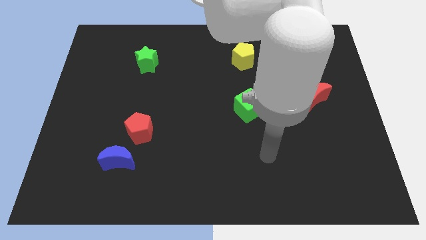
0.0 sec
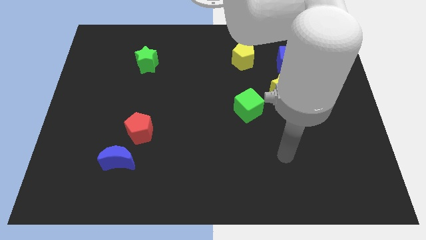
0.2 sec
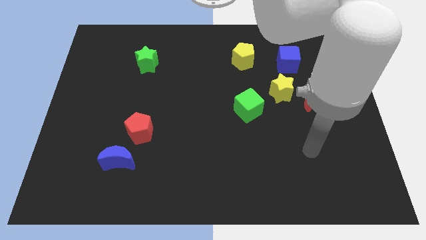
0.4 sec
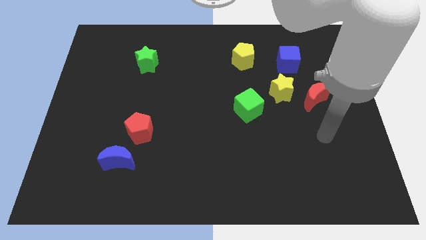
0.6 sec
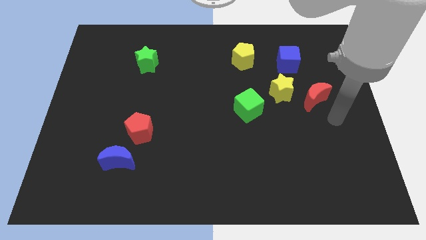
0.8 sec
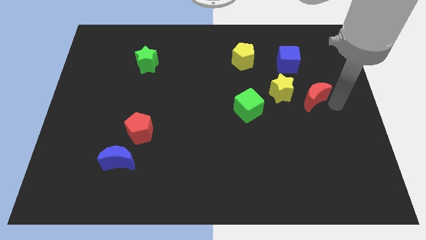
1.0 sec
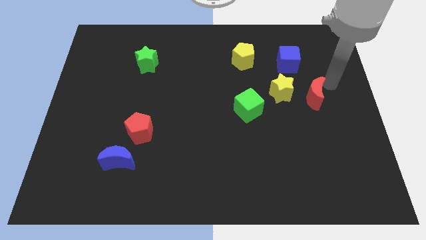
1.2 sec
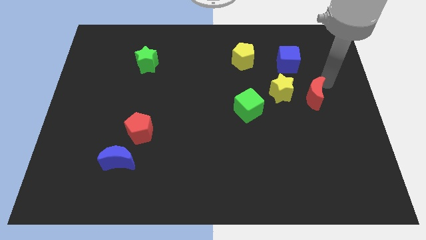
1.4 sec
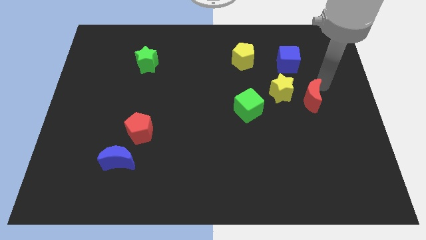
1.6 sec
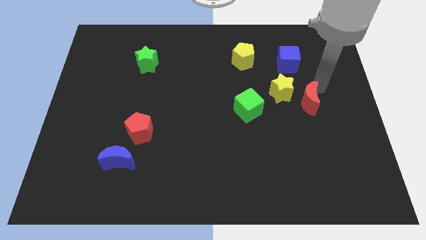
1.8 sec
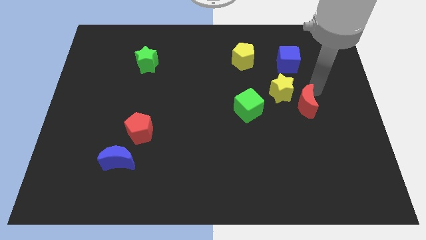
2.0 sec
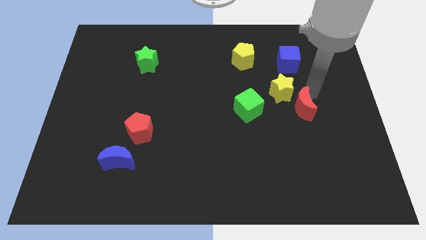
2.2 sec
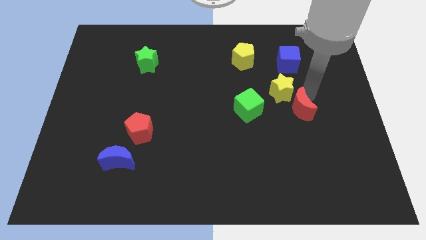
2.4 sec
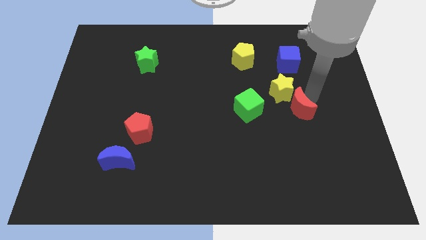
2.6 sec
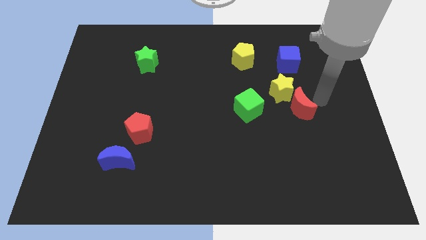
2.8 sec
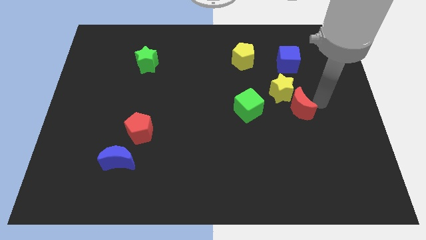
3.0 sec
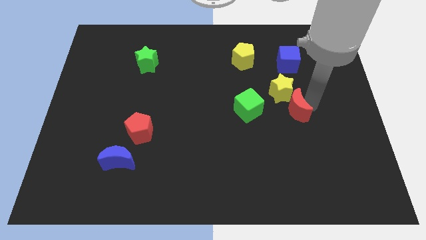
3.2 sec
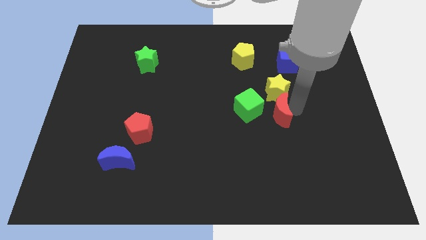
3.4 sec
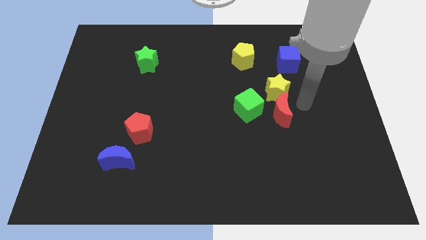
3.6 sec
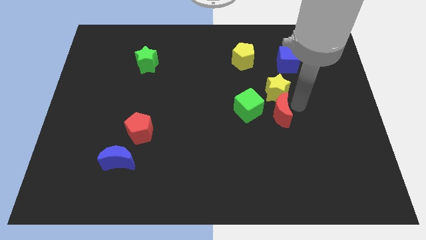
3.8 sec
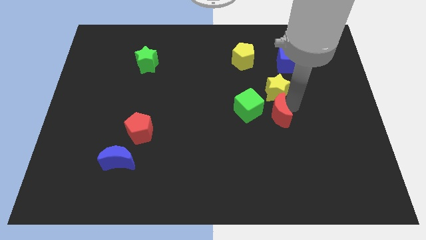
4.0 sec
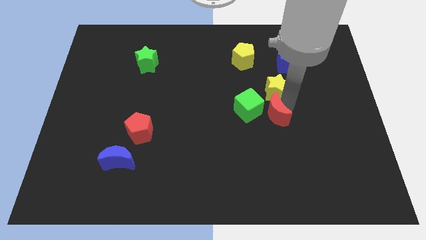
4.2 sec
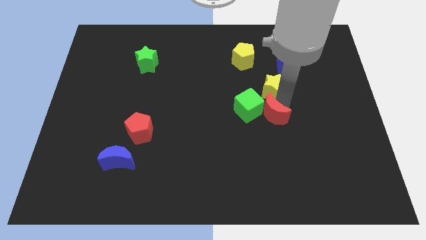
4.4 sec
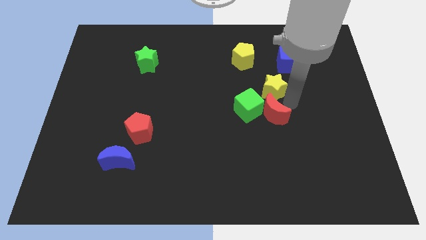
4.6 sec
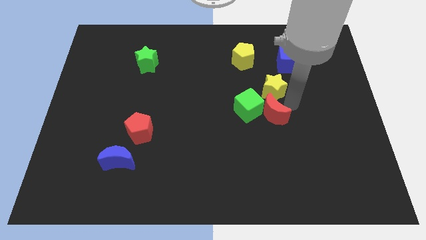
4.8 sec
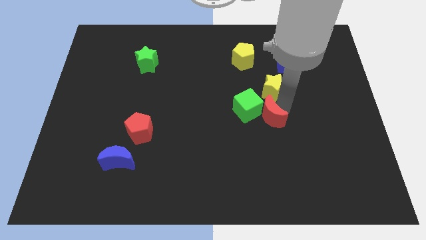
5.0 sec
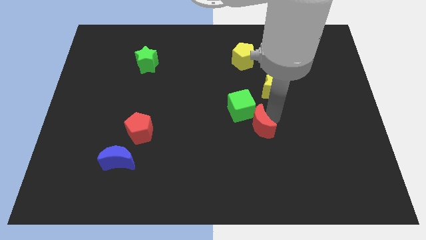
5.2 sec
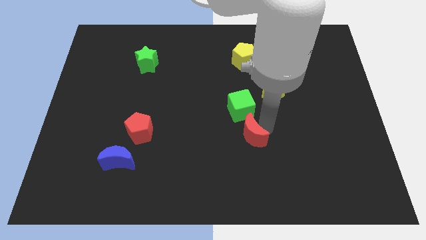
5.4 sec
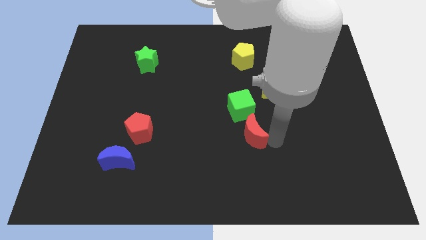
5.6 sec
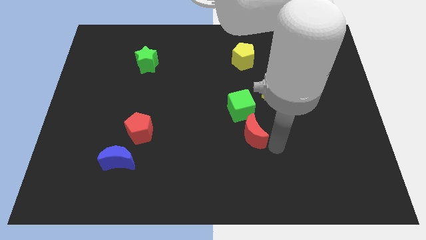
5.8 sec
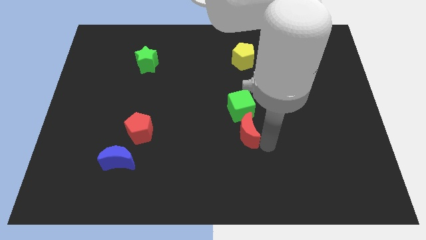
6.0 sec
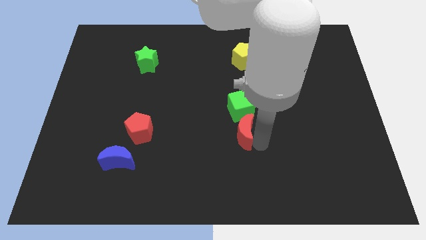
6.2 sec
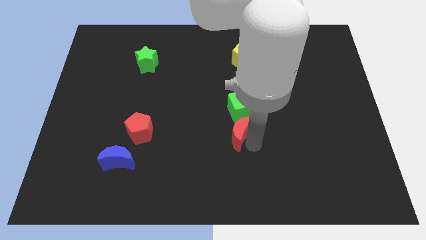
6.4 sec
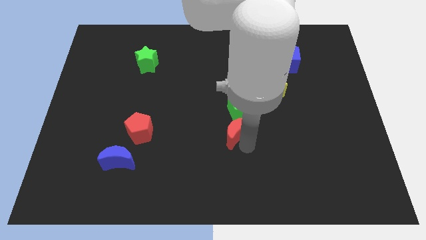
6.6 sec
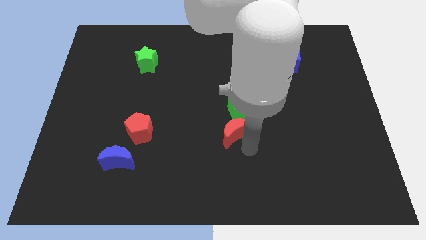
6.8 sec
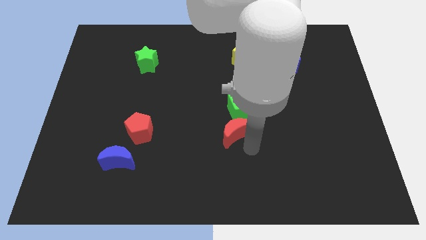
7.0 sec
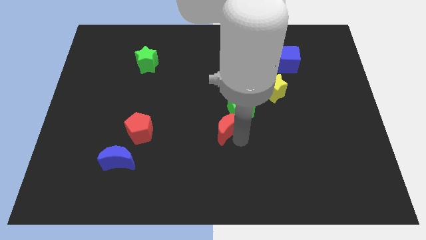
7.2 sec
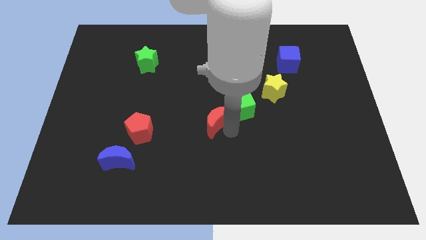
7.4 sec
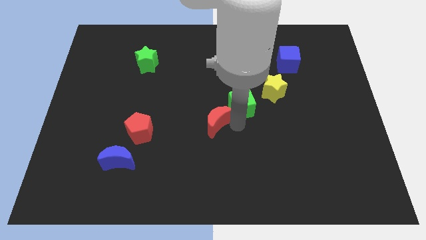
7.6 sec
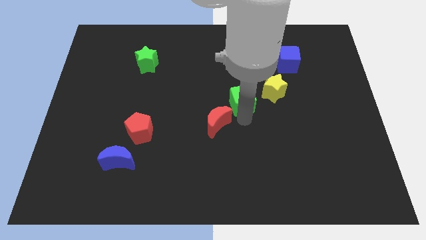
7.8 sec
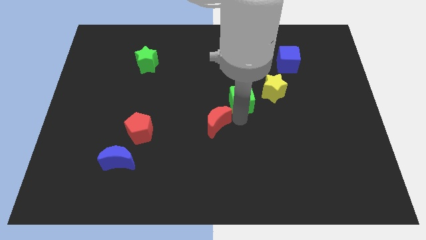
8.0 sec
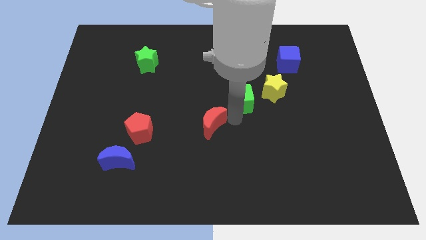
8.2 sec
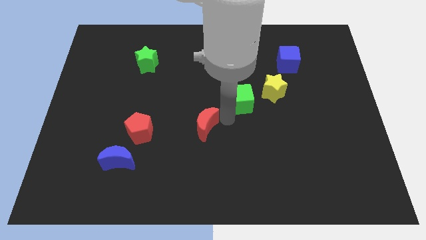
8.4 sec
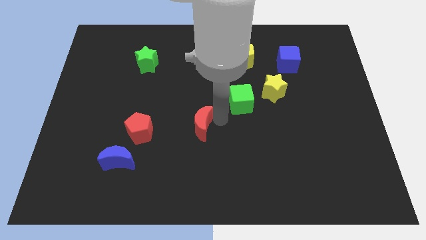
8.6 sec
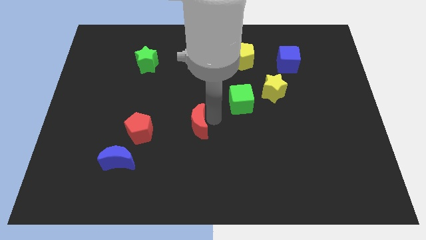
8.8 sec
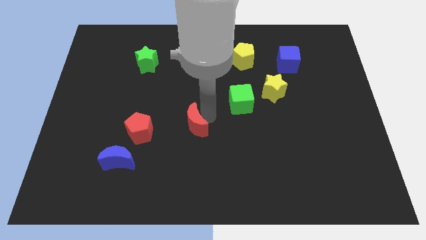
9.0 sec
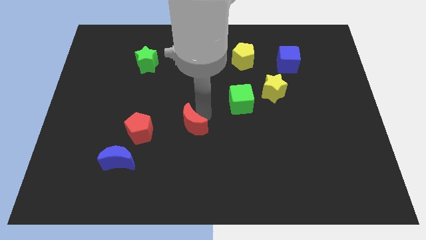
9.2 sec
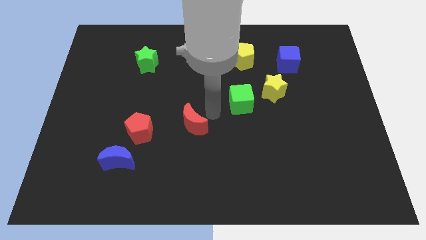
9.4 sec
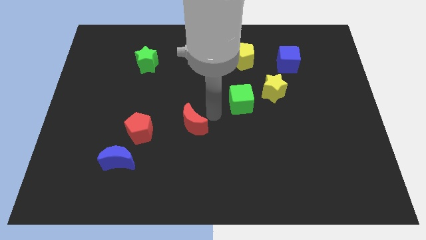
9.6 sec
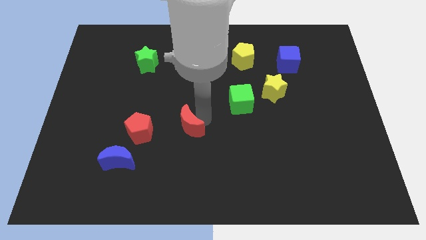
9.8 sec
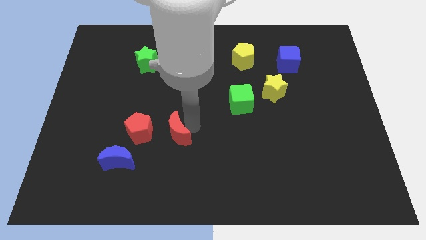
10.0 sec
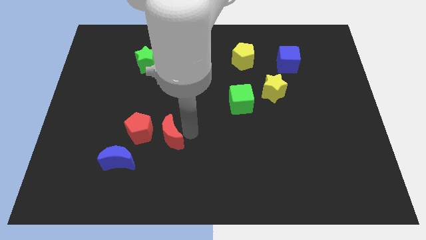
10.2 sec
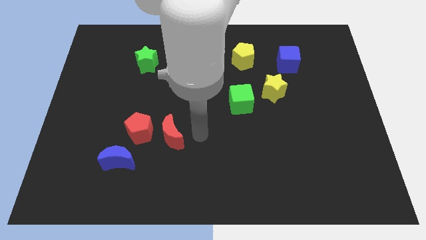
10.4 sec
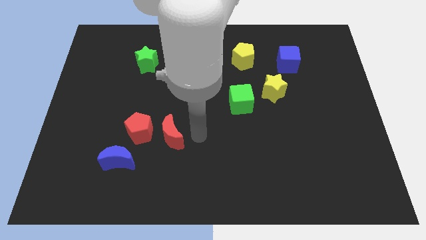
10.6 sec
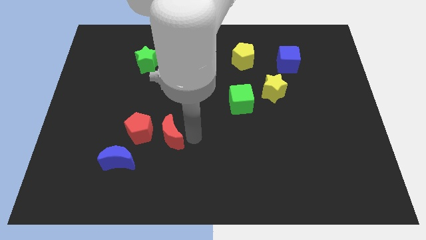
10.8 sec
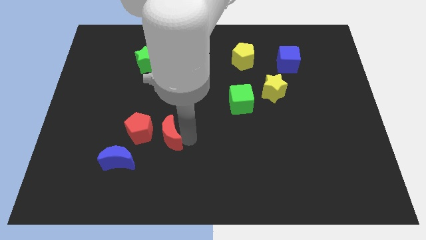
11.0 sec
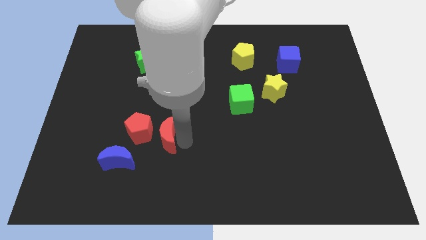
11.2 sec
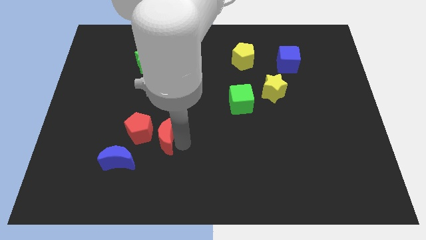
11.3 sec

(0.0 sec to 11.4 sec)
put the red moon towards the red pentagon

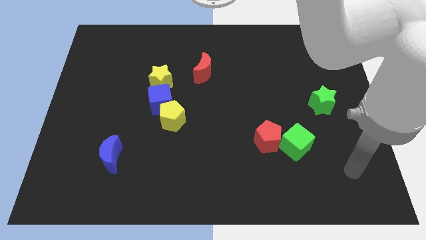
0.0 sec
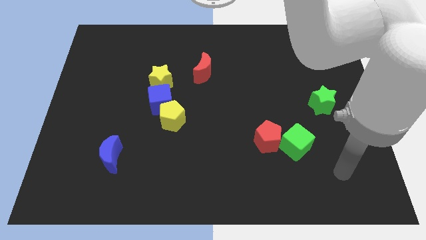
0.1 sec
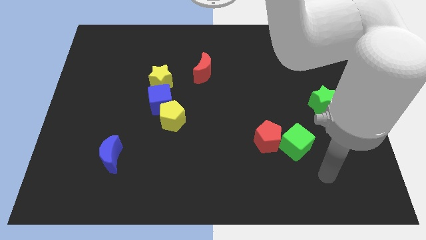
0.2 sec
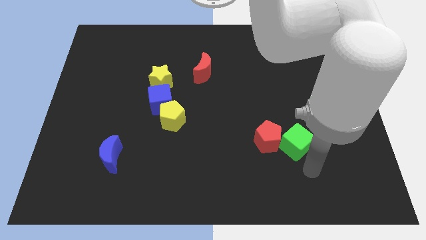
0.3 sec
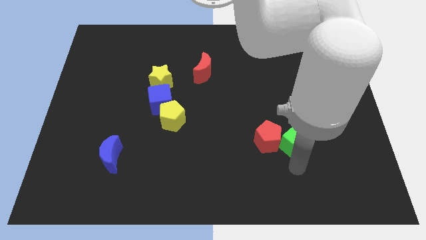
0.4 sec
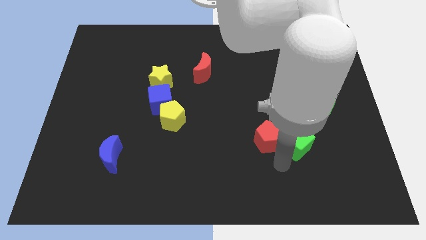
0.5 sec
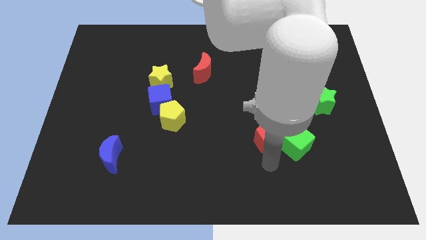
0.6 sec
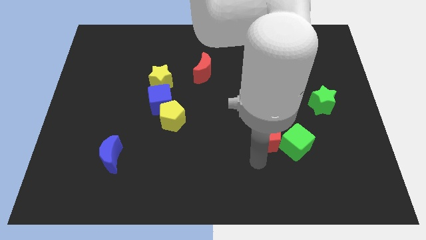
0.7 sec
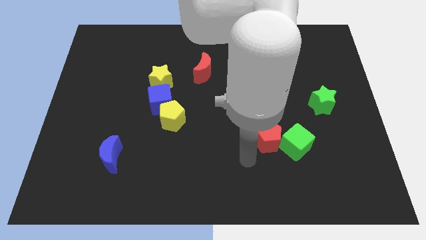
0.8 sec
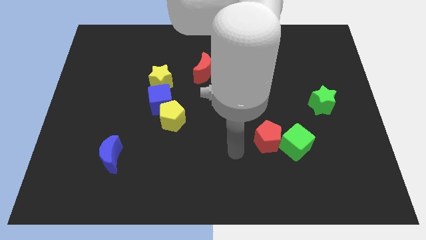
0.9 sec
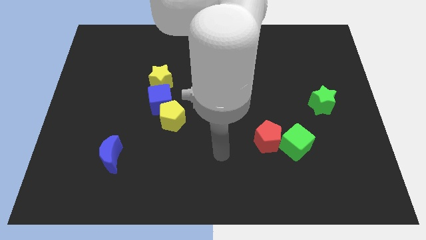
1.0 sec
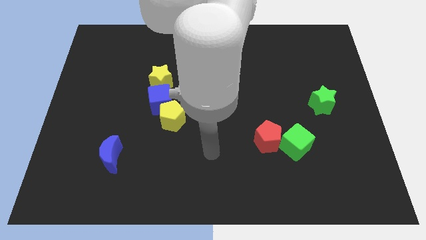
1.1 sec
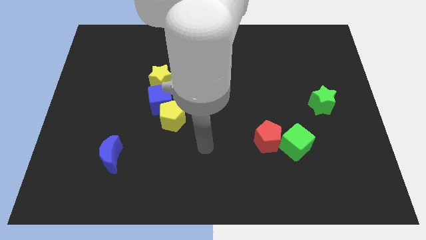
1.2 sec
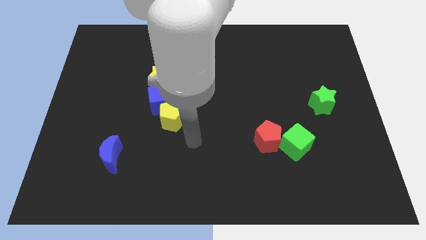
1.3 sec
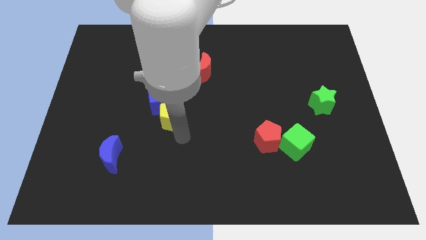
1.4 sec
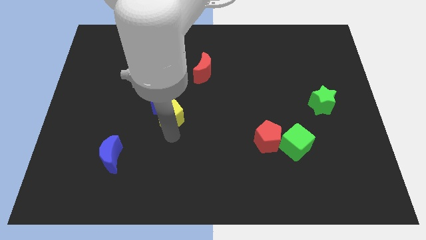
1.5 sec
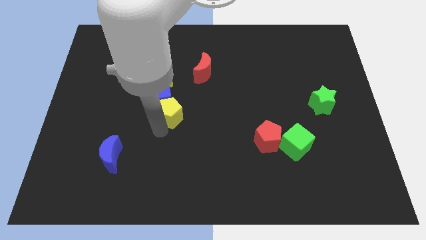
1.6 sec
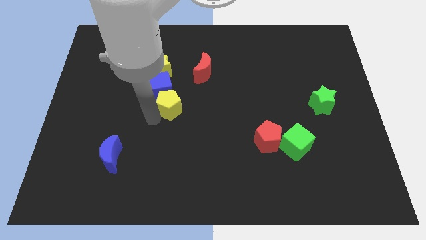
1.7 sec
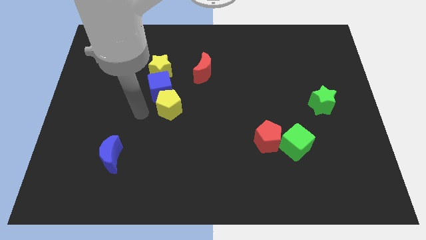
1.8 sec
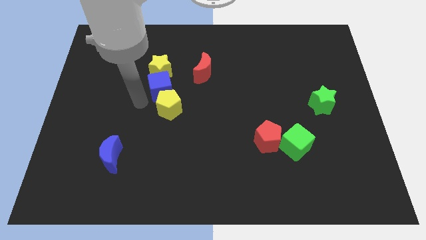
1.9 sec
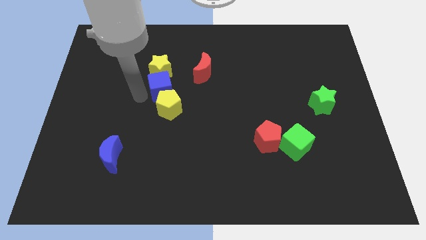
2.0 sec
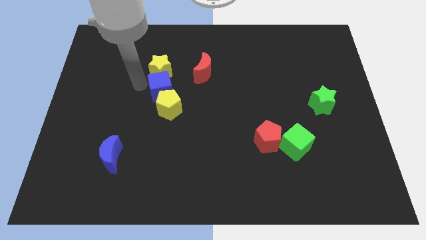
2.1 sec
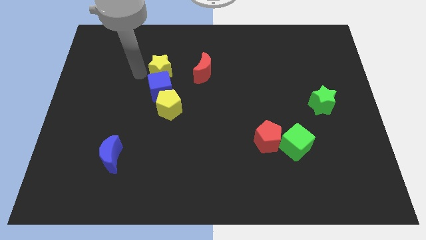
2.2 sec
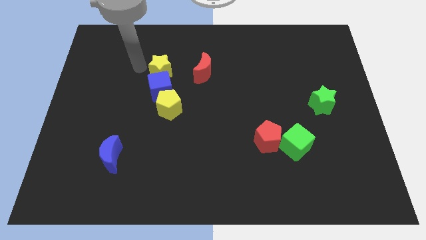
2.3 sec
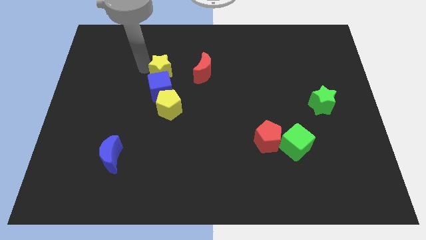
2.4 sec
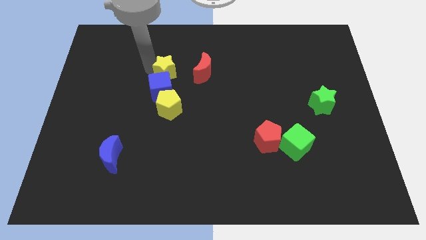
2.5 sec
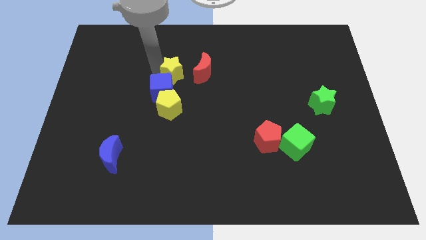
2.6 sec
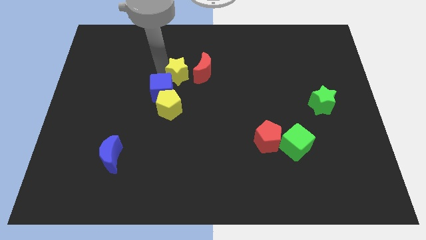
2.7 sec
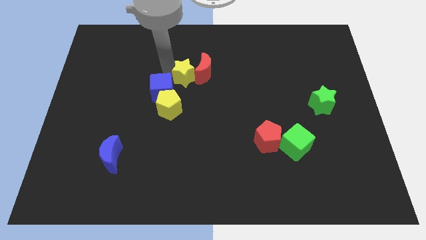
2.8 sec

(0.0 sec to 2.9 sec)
push the yellow star next to the red moon
